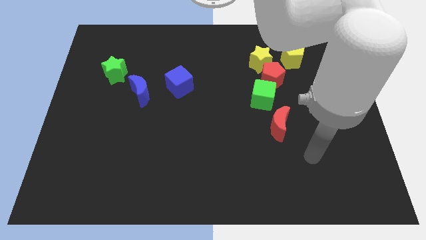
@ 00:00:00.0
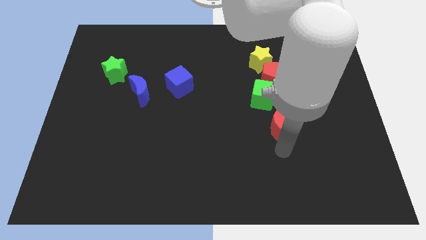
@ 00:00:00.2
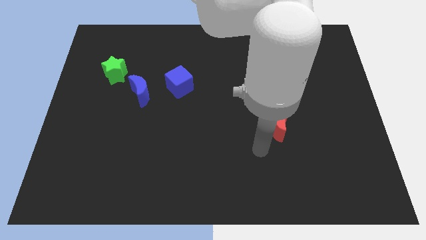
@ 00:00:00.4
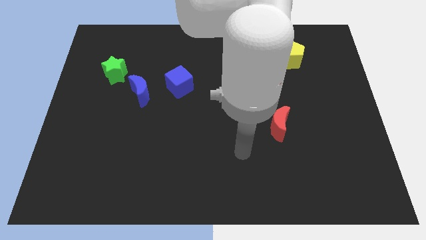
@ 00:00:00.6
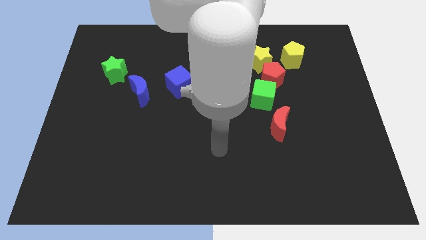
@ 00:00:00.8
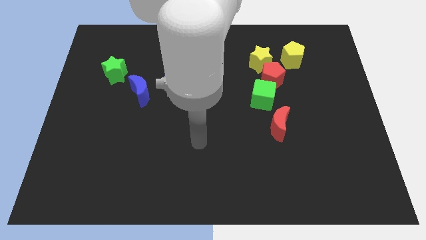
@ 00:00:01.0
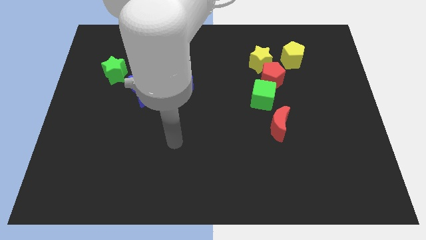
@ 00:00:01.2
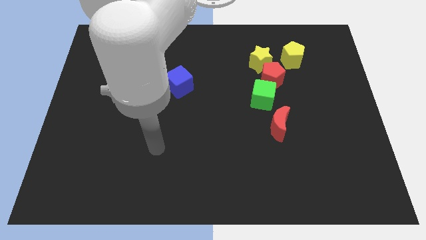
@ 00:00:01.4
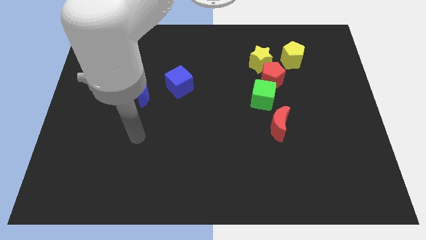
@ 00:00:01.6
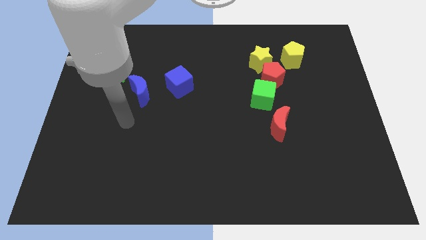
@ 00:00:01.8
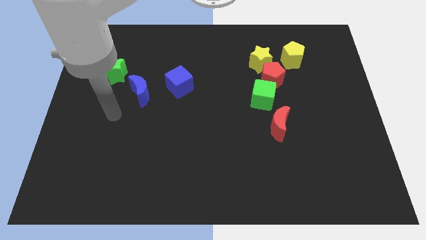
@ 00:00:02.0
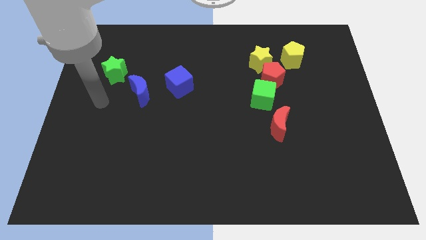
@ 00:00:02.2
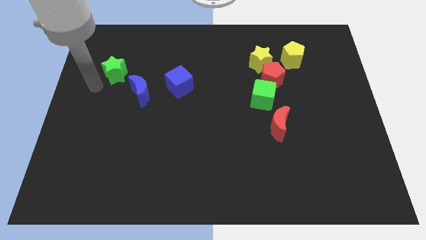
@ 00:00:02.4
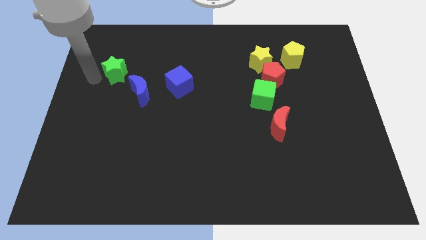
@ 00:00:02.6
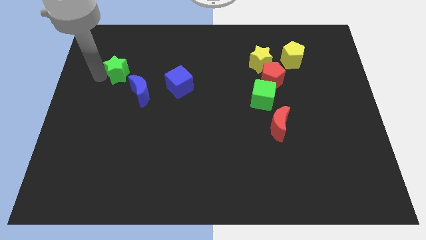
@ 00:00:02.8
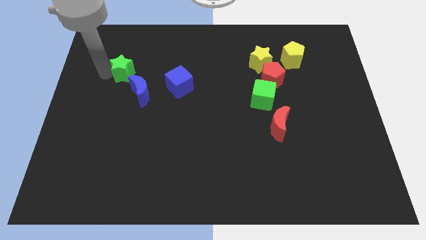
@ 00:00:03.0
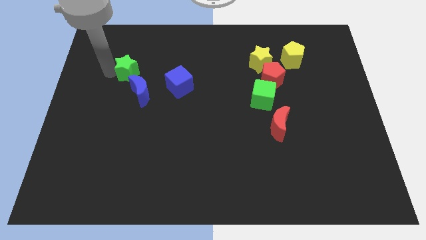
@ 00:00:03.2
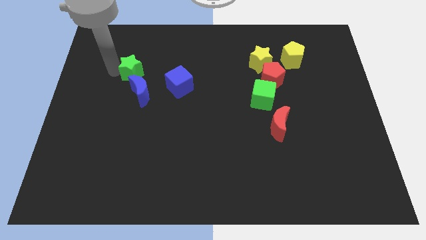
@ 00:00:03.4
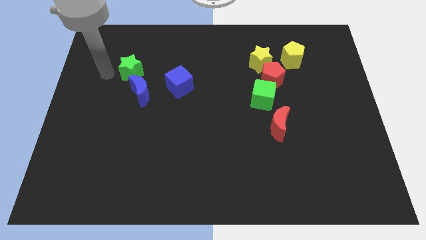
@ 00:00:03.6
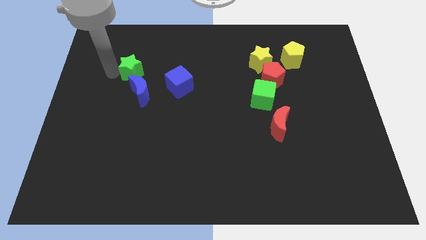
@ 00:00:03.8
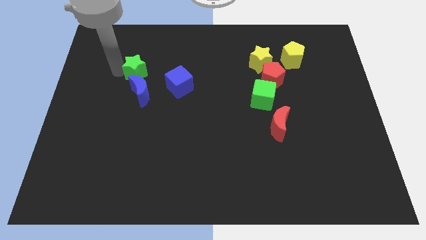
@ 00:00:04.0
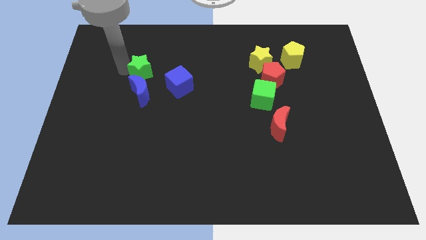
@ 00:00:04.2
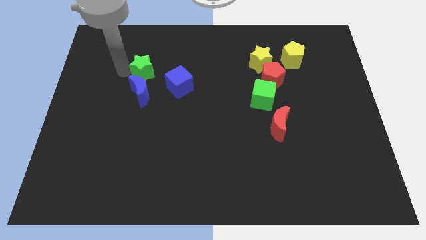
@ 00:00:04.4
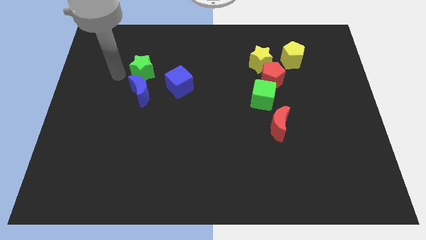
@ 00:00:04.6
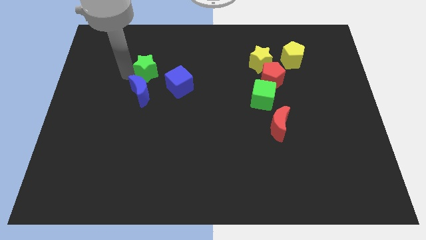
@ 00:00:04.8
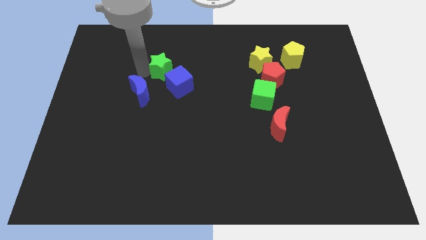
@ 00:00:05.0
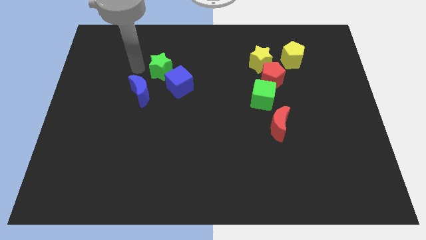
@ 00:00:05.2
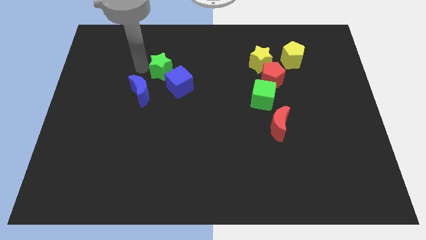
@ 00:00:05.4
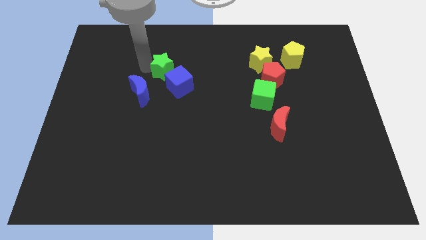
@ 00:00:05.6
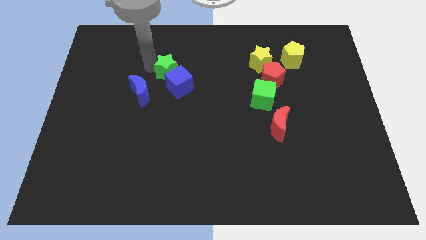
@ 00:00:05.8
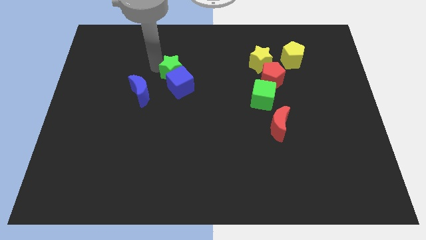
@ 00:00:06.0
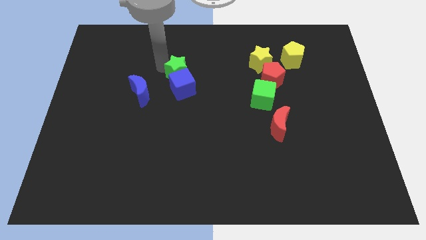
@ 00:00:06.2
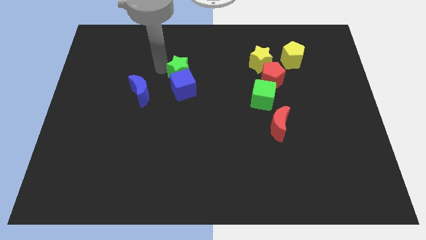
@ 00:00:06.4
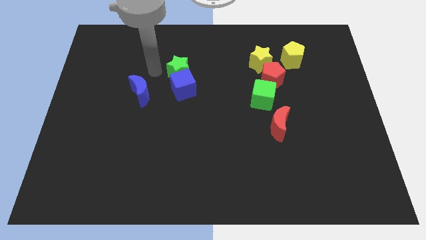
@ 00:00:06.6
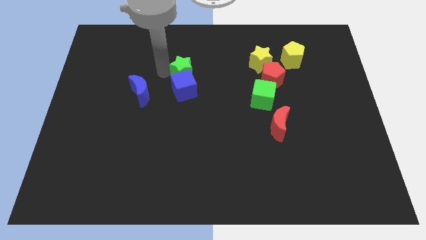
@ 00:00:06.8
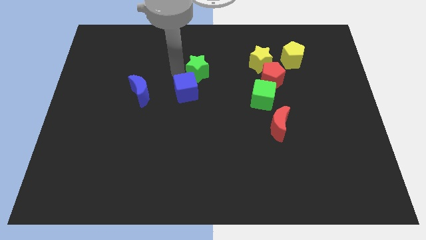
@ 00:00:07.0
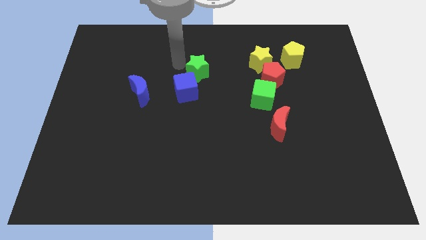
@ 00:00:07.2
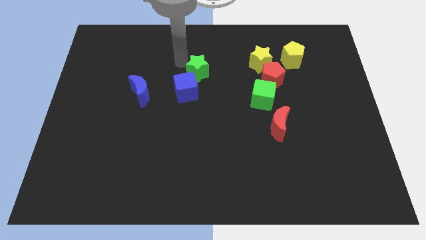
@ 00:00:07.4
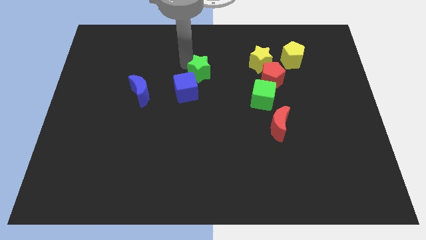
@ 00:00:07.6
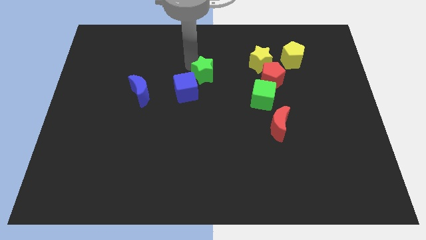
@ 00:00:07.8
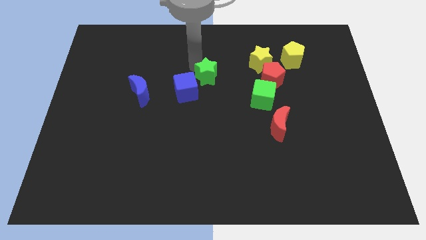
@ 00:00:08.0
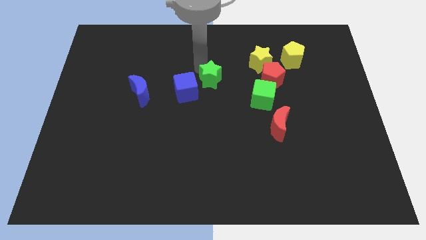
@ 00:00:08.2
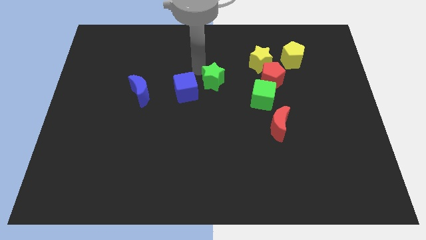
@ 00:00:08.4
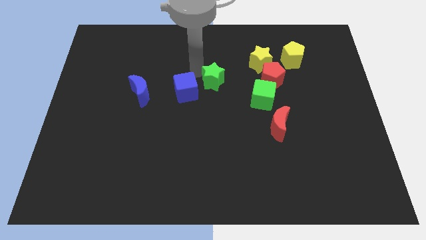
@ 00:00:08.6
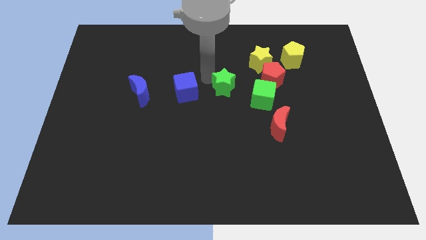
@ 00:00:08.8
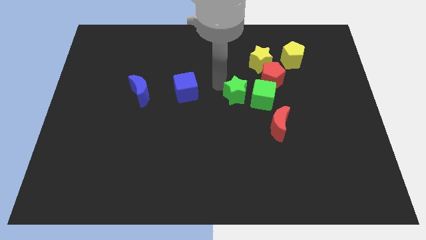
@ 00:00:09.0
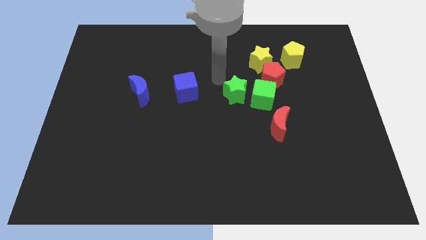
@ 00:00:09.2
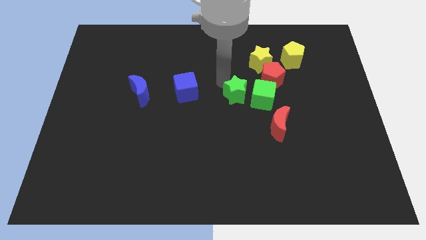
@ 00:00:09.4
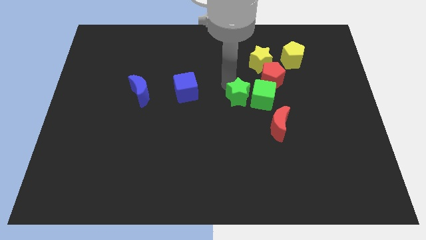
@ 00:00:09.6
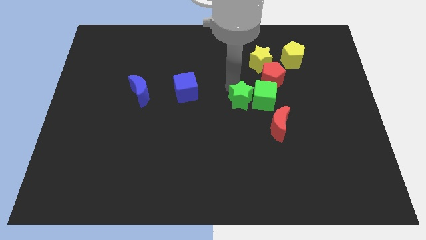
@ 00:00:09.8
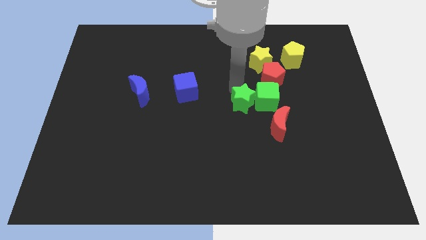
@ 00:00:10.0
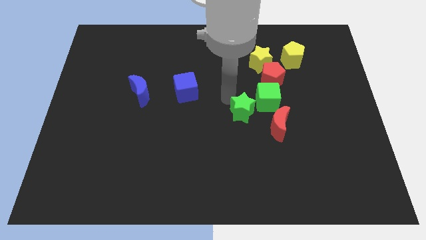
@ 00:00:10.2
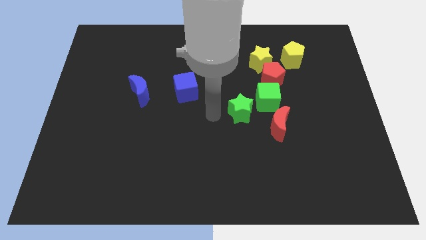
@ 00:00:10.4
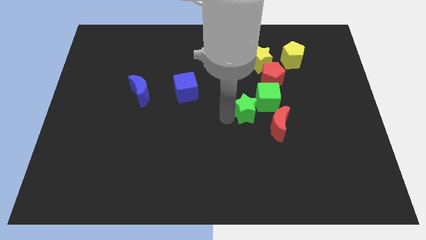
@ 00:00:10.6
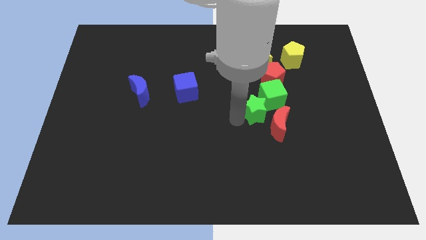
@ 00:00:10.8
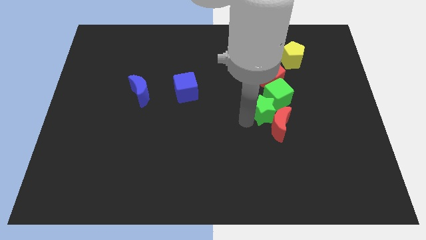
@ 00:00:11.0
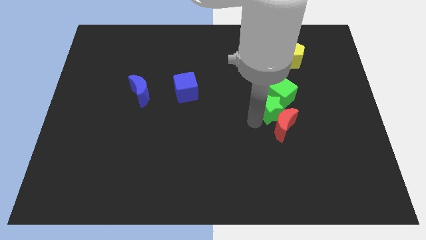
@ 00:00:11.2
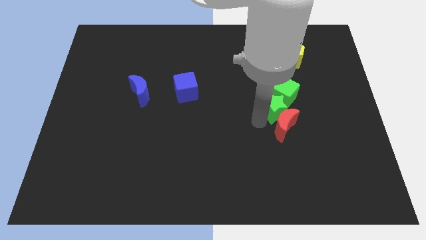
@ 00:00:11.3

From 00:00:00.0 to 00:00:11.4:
put the green star to the top right side of the red moon

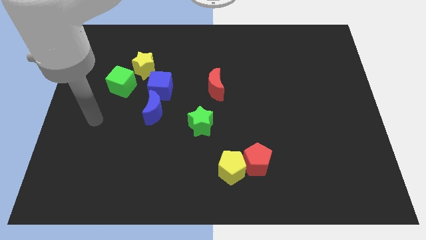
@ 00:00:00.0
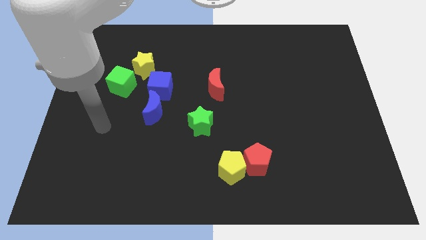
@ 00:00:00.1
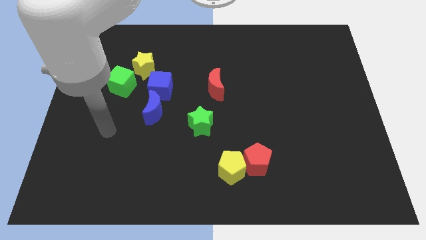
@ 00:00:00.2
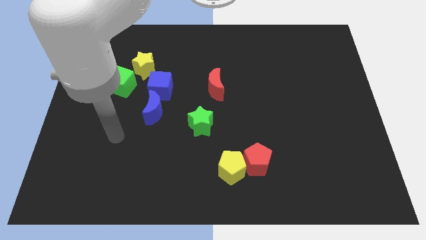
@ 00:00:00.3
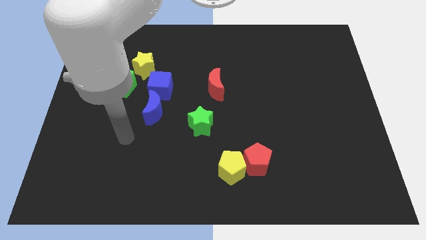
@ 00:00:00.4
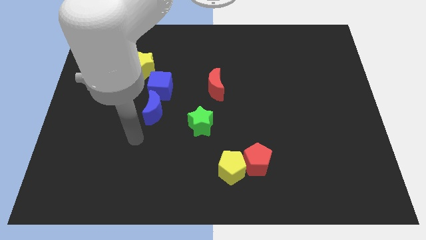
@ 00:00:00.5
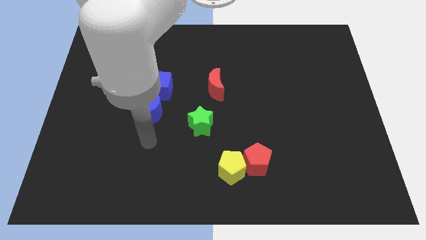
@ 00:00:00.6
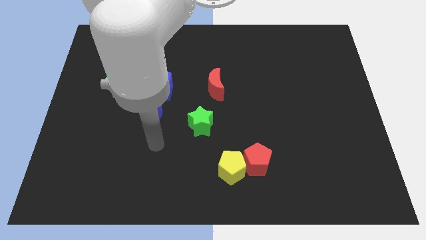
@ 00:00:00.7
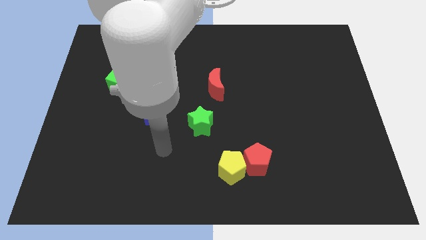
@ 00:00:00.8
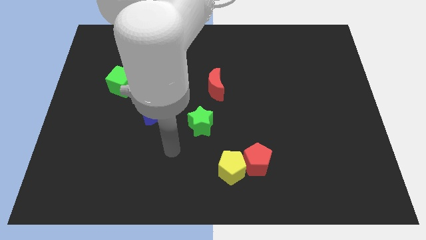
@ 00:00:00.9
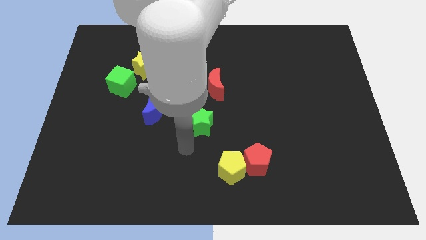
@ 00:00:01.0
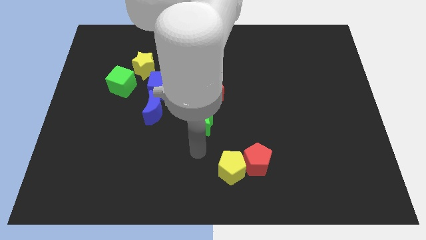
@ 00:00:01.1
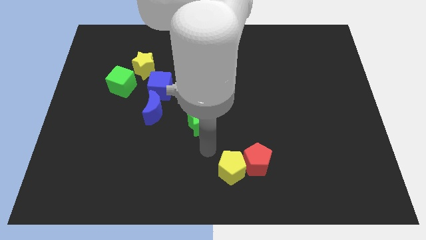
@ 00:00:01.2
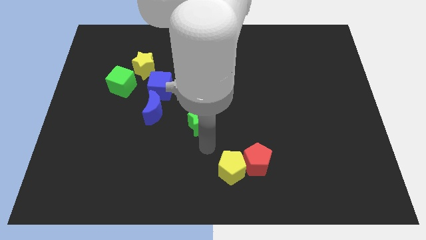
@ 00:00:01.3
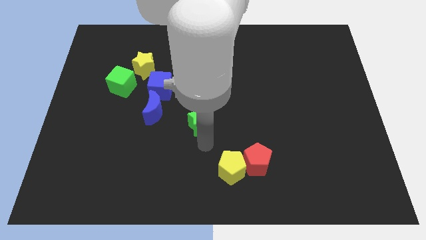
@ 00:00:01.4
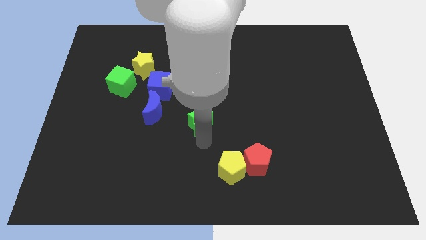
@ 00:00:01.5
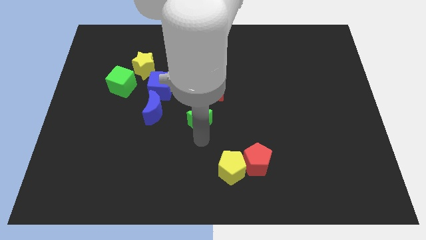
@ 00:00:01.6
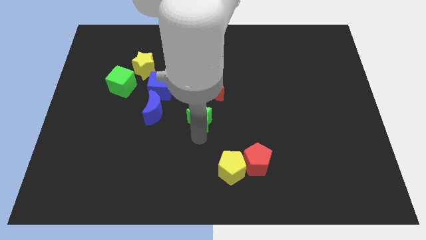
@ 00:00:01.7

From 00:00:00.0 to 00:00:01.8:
push the green star diagonally down and to the left of the red moon
